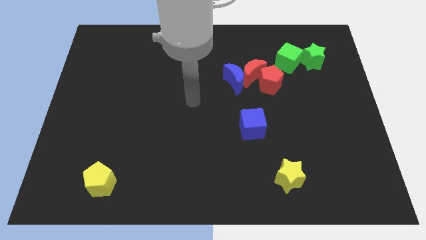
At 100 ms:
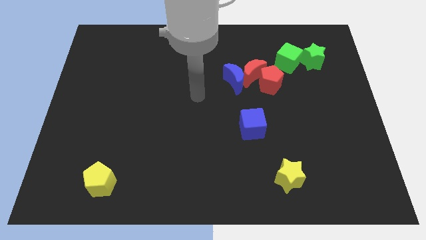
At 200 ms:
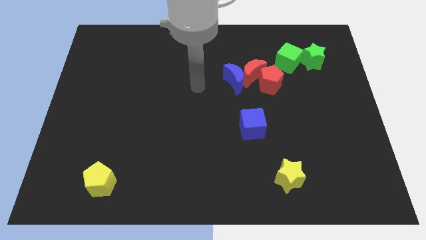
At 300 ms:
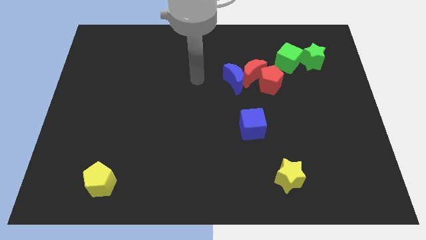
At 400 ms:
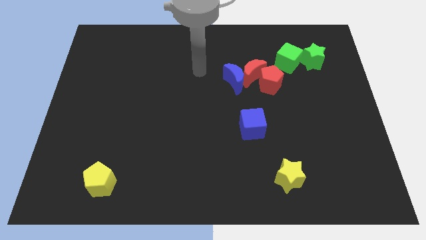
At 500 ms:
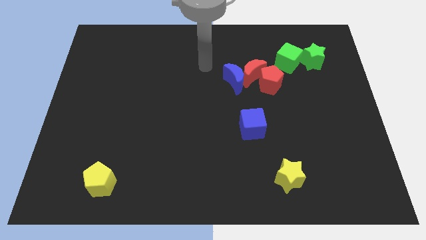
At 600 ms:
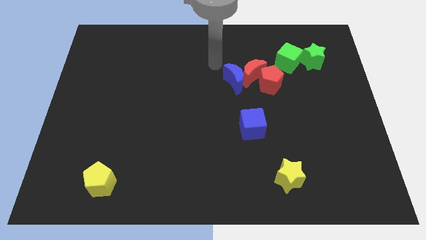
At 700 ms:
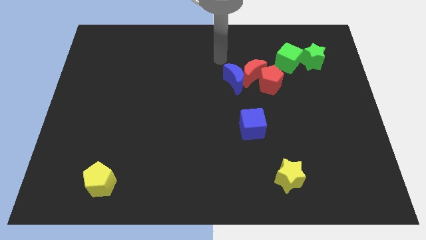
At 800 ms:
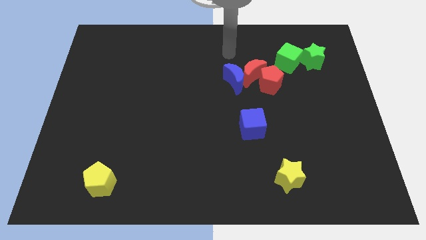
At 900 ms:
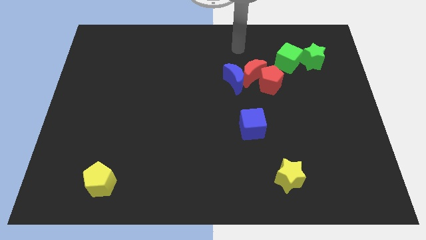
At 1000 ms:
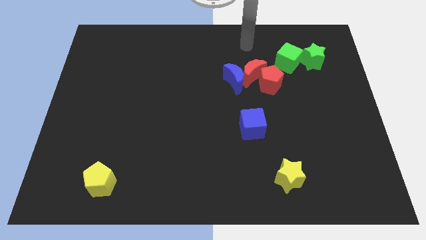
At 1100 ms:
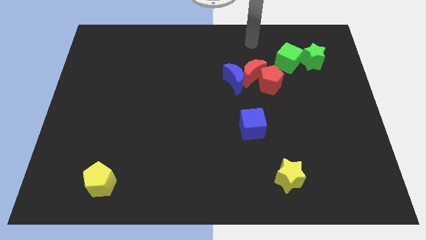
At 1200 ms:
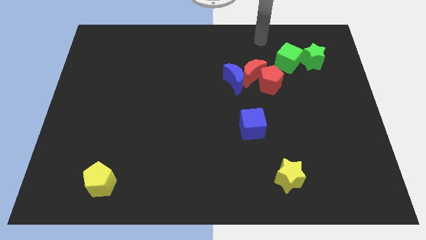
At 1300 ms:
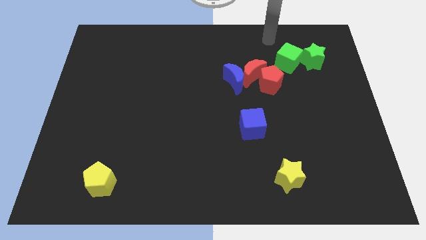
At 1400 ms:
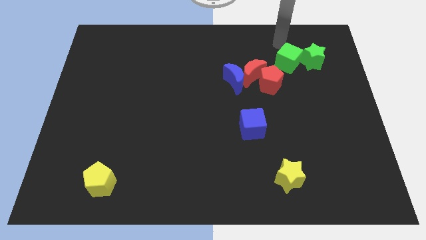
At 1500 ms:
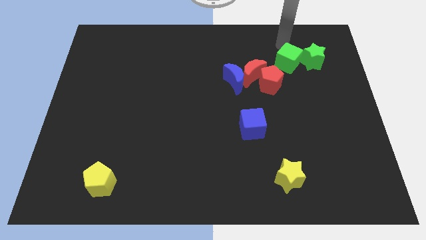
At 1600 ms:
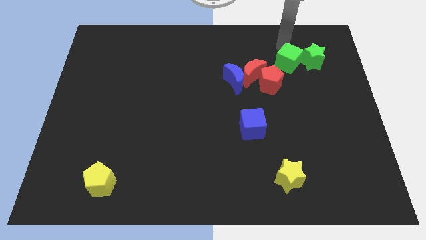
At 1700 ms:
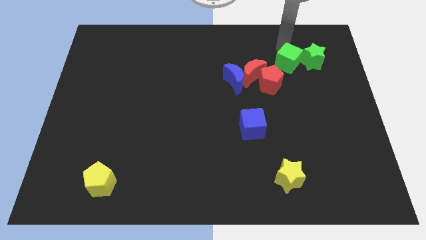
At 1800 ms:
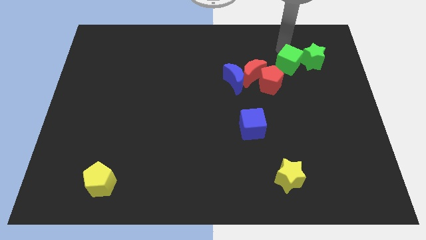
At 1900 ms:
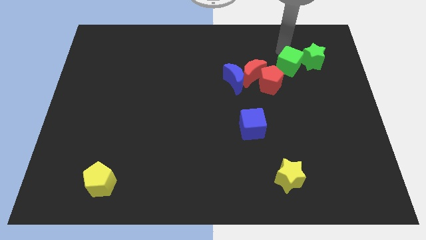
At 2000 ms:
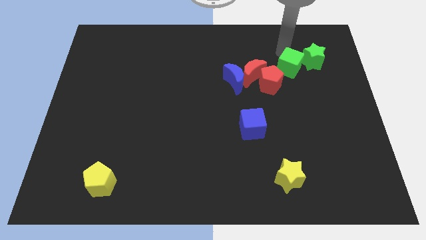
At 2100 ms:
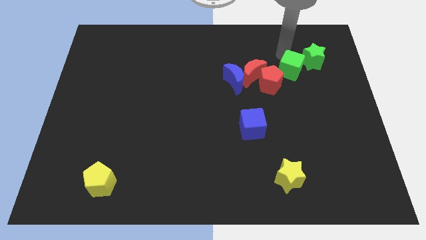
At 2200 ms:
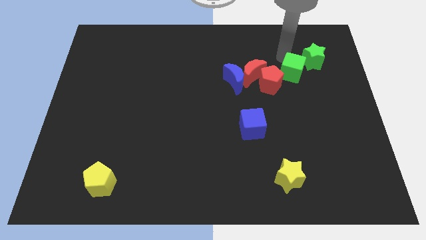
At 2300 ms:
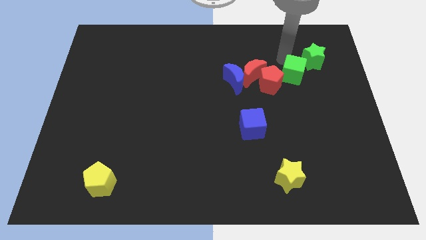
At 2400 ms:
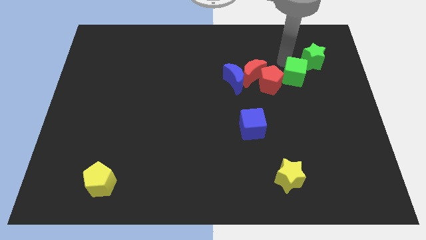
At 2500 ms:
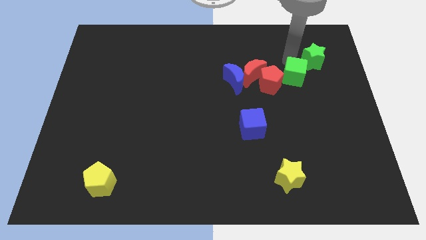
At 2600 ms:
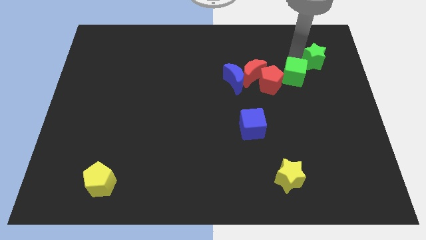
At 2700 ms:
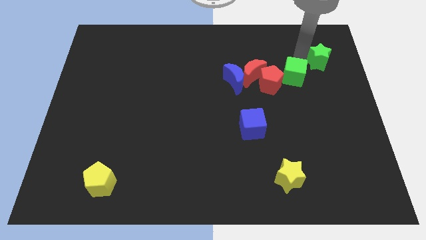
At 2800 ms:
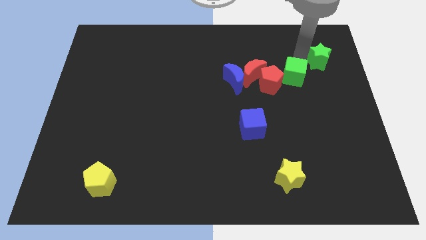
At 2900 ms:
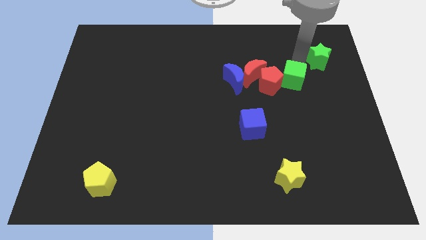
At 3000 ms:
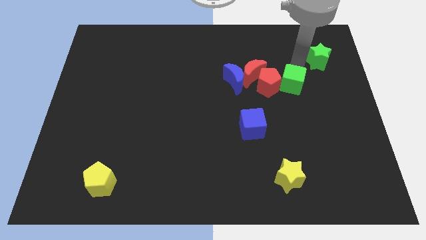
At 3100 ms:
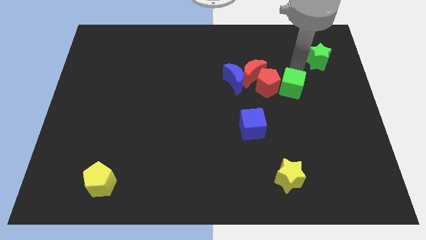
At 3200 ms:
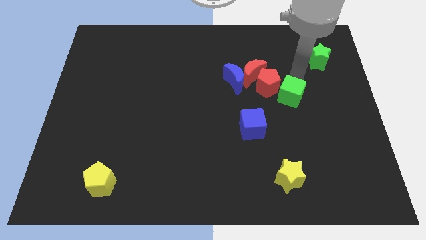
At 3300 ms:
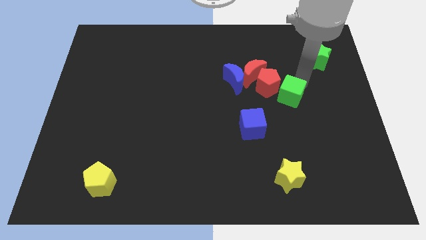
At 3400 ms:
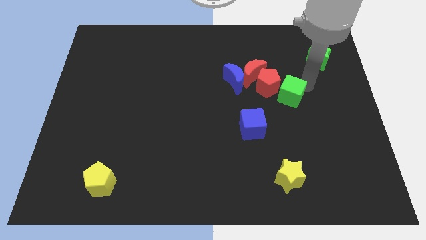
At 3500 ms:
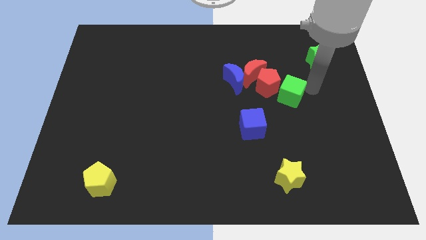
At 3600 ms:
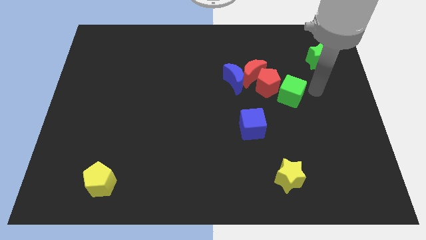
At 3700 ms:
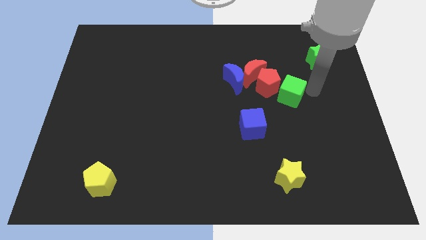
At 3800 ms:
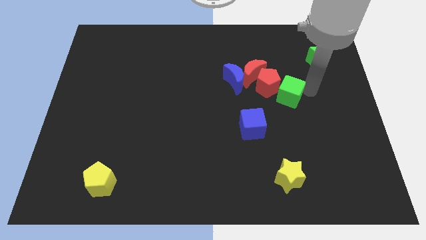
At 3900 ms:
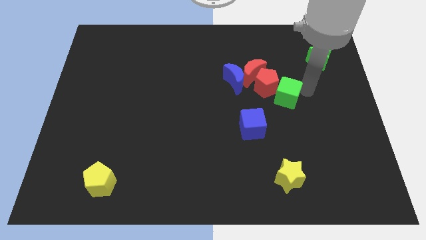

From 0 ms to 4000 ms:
move the green cube a little bit downwards and to the left

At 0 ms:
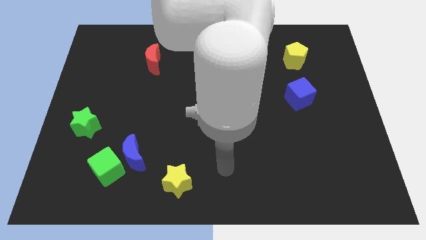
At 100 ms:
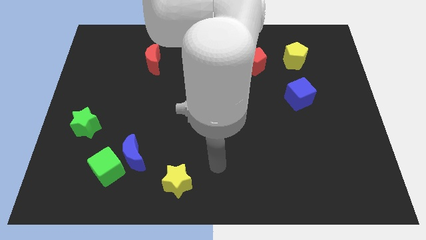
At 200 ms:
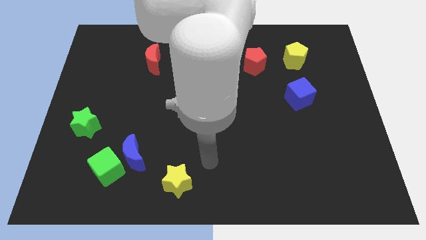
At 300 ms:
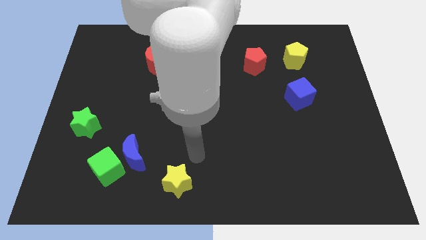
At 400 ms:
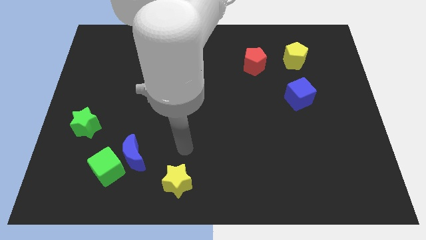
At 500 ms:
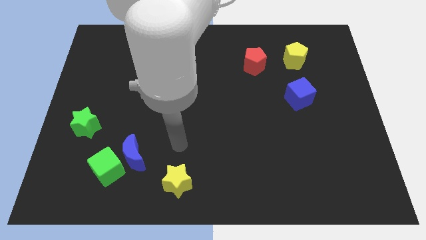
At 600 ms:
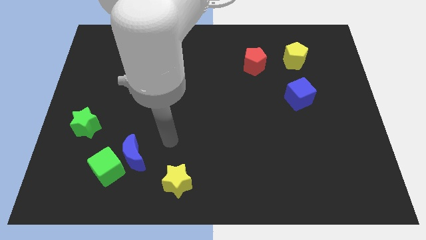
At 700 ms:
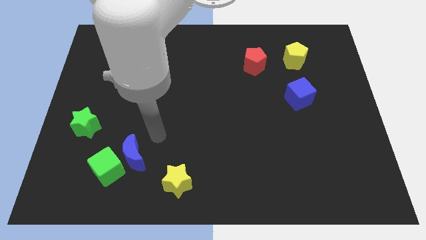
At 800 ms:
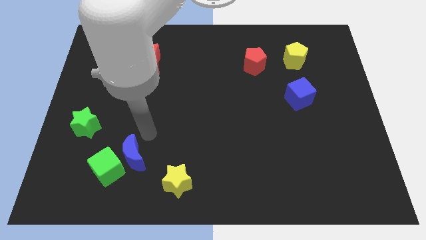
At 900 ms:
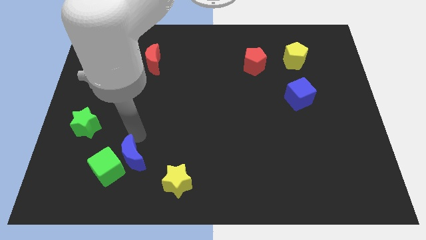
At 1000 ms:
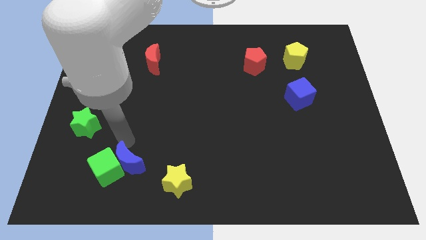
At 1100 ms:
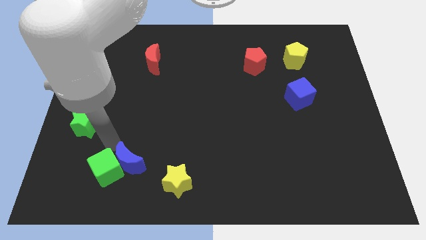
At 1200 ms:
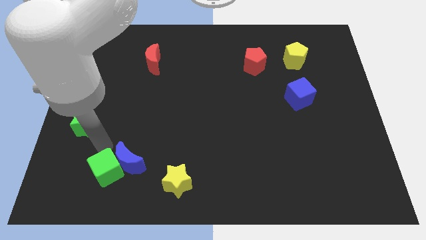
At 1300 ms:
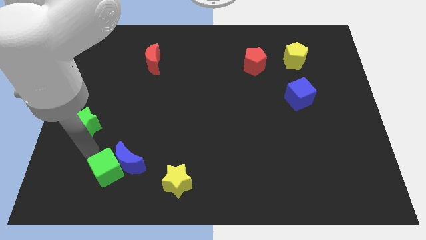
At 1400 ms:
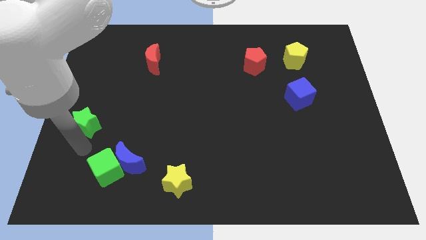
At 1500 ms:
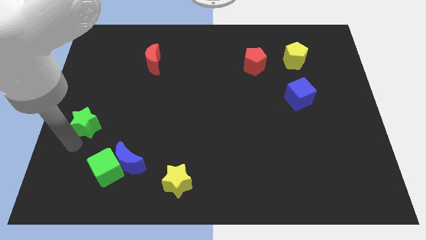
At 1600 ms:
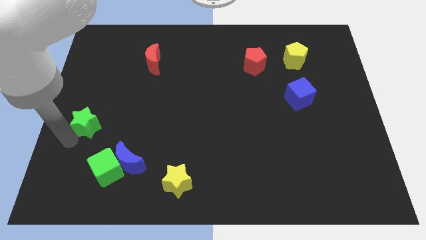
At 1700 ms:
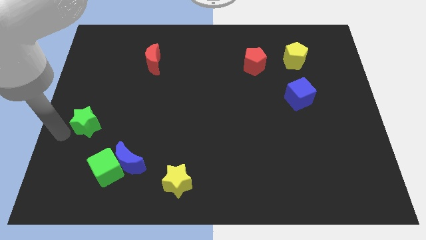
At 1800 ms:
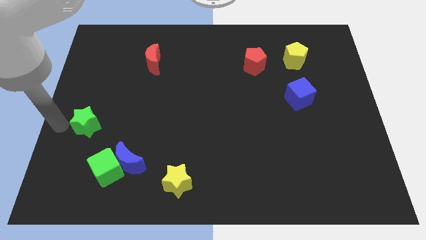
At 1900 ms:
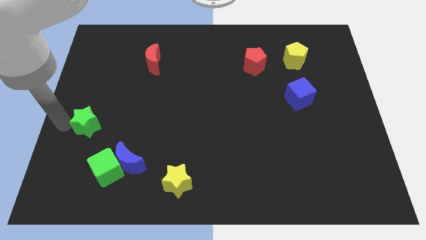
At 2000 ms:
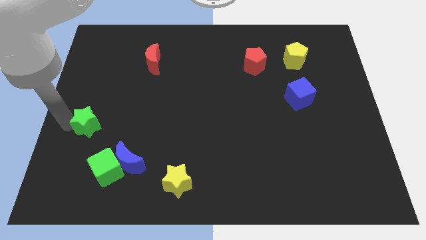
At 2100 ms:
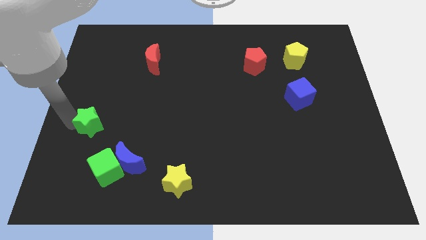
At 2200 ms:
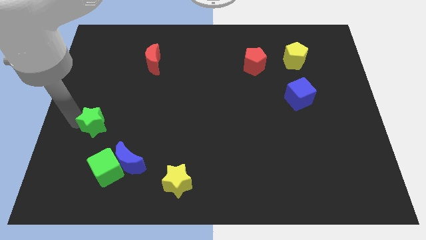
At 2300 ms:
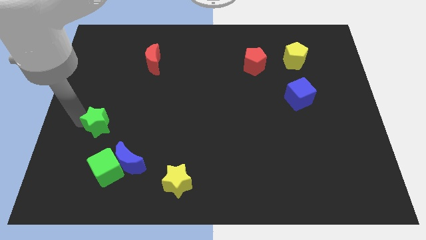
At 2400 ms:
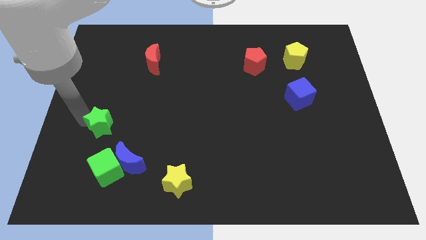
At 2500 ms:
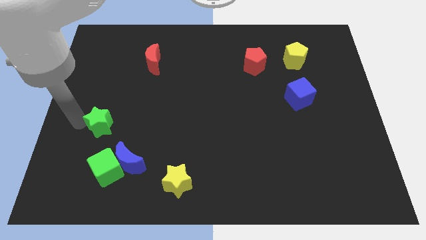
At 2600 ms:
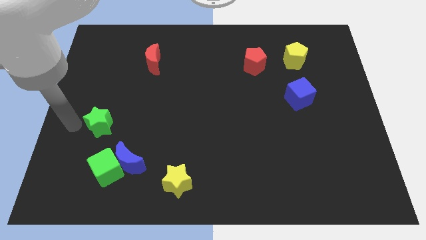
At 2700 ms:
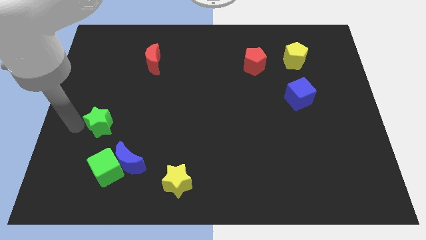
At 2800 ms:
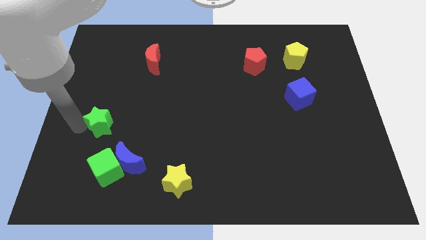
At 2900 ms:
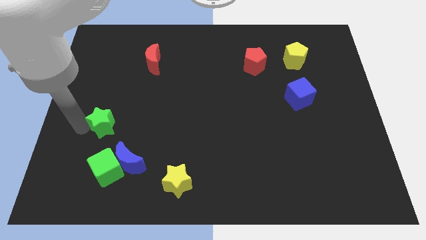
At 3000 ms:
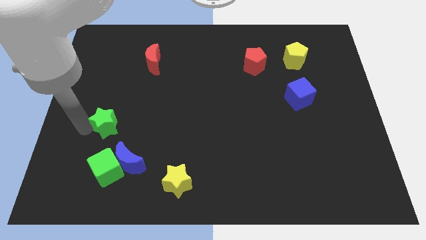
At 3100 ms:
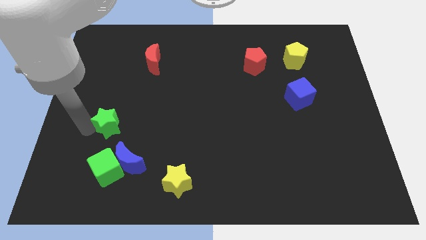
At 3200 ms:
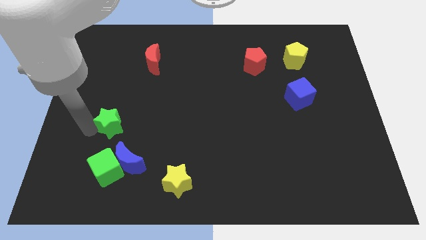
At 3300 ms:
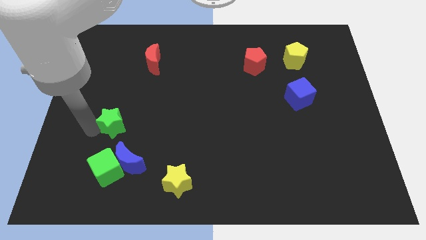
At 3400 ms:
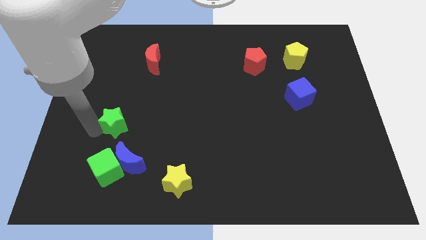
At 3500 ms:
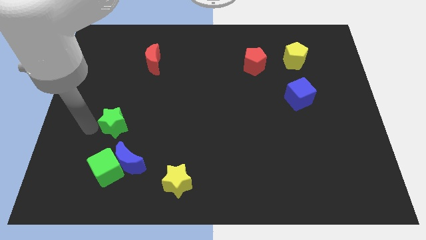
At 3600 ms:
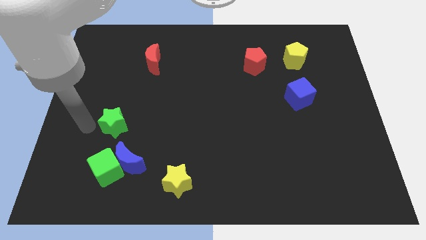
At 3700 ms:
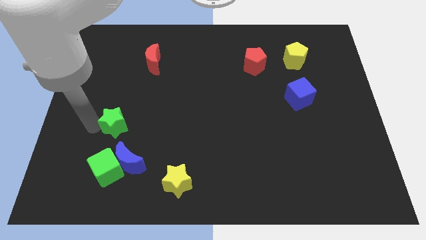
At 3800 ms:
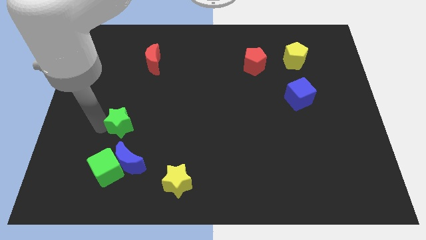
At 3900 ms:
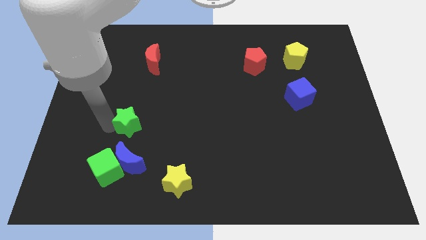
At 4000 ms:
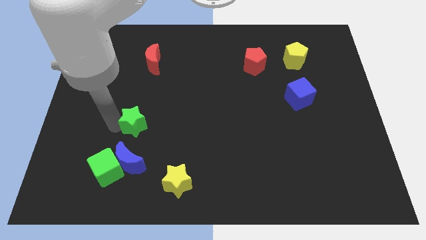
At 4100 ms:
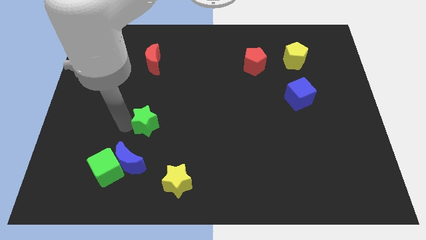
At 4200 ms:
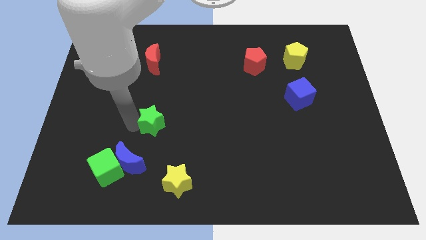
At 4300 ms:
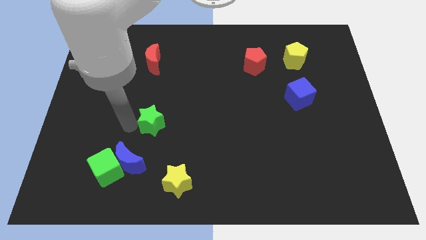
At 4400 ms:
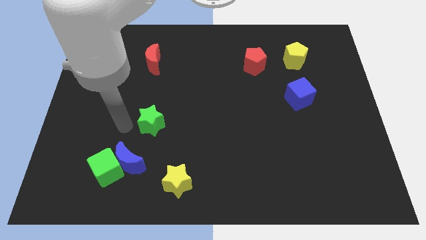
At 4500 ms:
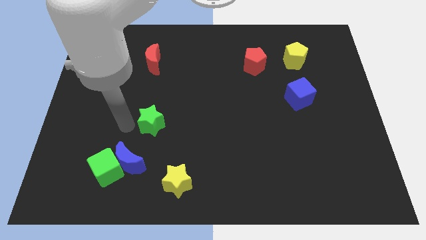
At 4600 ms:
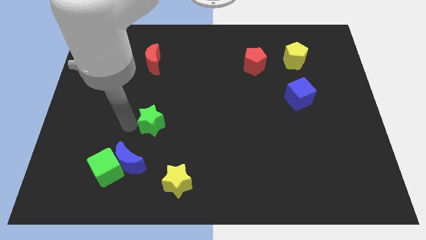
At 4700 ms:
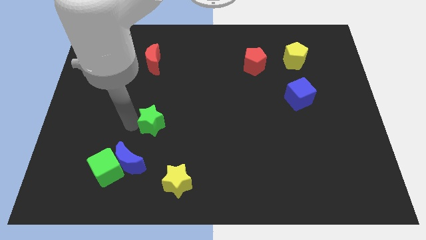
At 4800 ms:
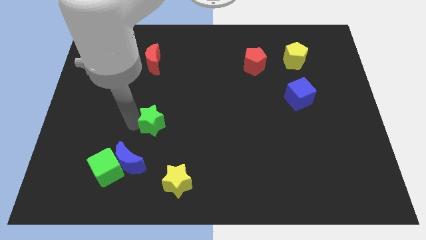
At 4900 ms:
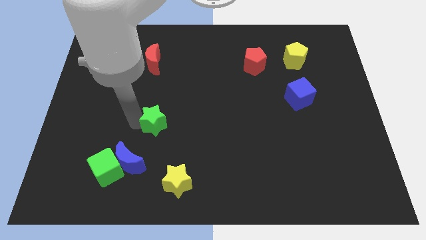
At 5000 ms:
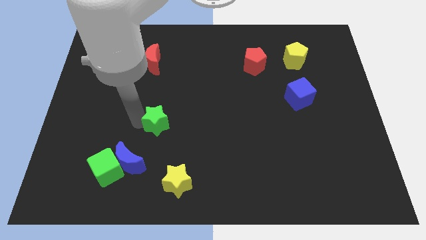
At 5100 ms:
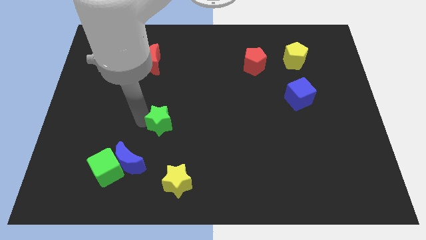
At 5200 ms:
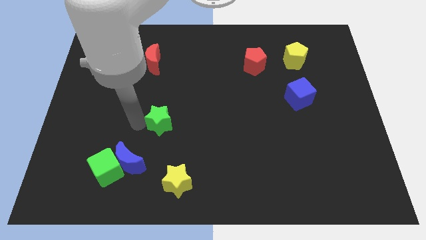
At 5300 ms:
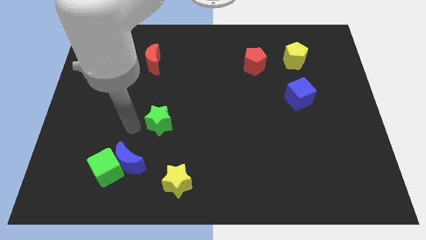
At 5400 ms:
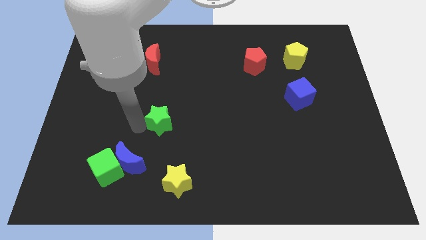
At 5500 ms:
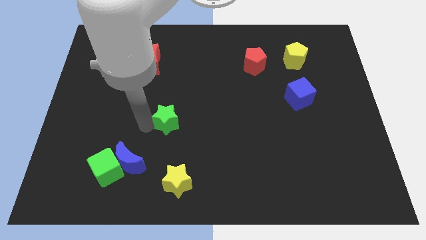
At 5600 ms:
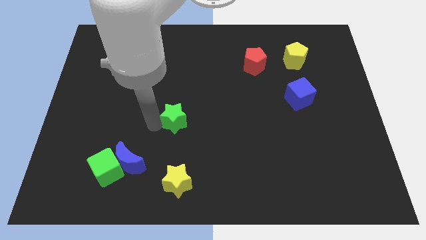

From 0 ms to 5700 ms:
push the green star right
